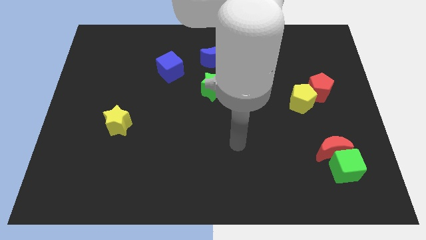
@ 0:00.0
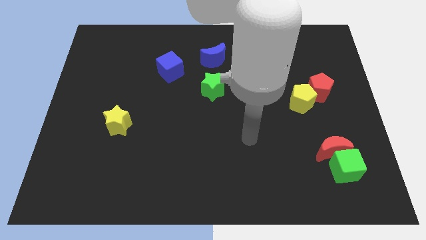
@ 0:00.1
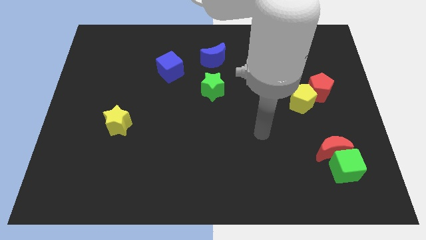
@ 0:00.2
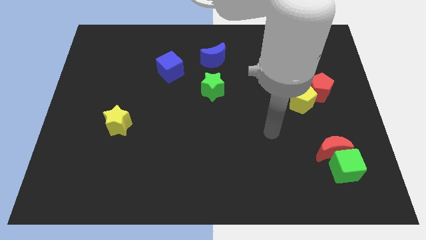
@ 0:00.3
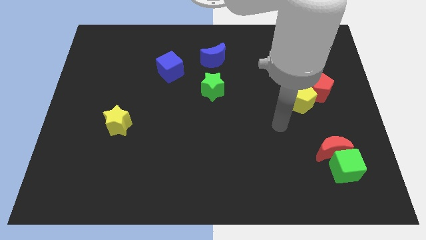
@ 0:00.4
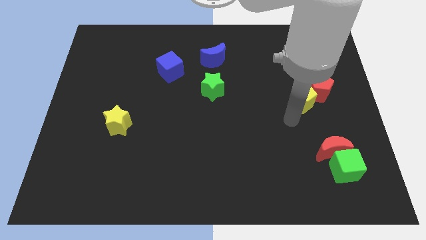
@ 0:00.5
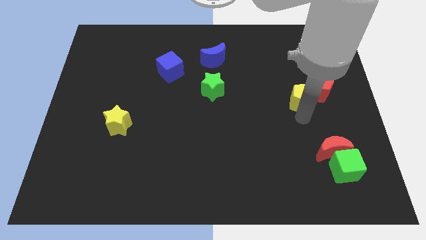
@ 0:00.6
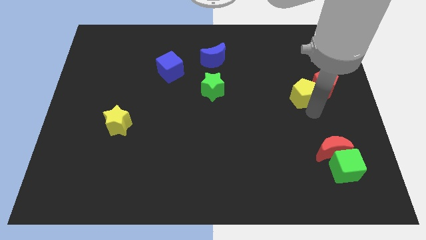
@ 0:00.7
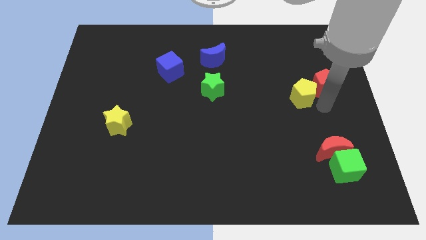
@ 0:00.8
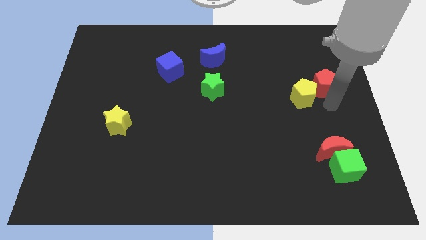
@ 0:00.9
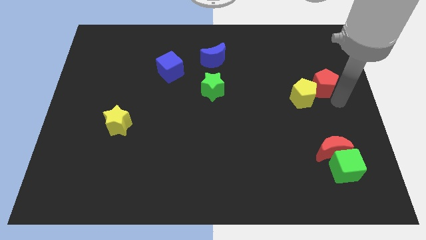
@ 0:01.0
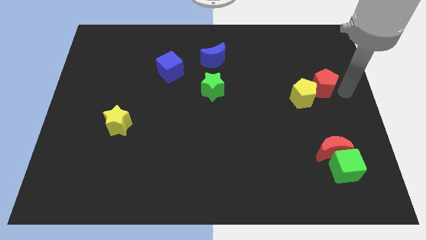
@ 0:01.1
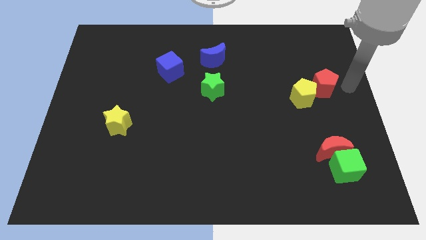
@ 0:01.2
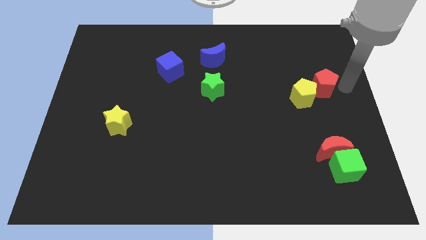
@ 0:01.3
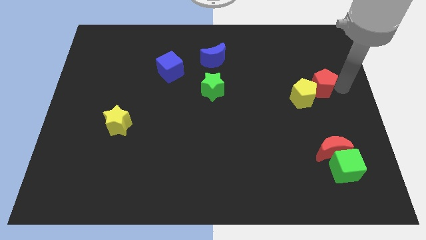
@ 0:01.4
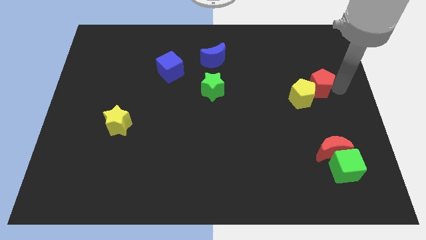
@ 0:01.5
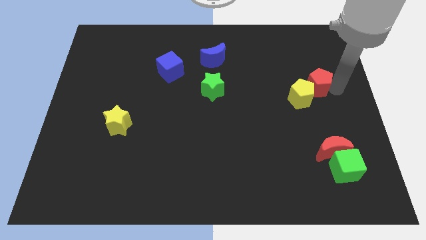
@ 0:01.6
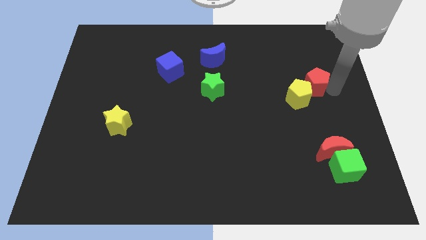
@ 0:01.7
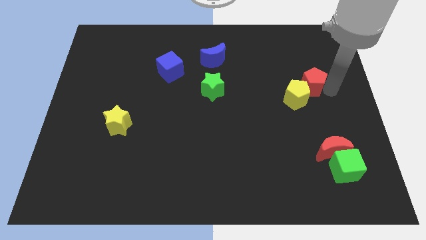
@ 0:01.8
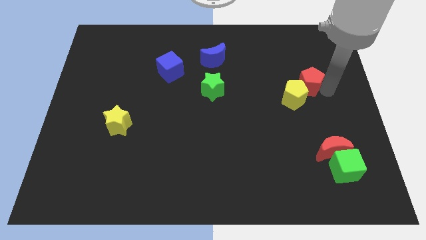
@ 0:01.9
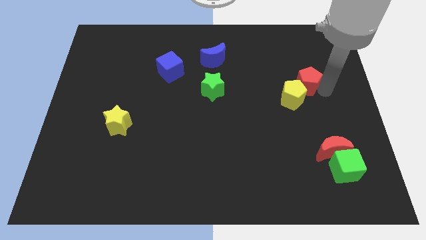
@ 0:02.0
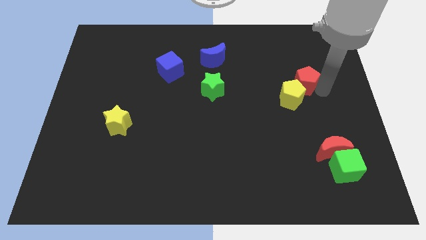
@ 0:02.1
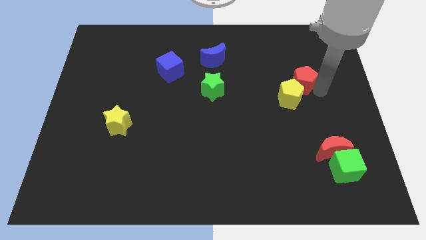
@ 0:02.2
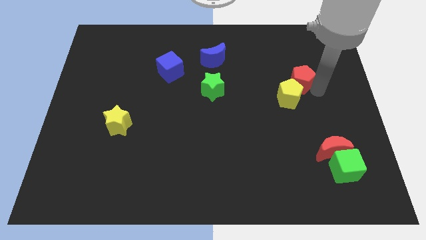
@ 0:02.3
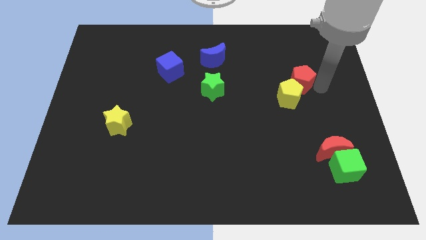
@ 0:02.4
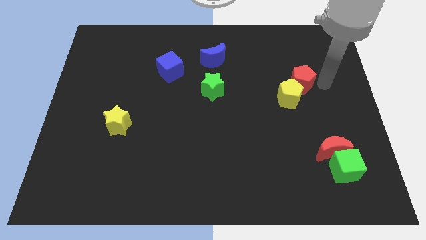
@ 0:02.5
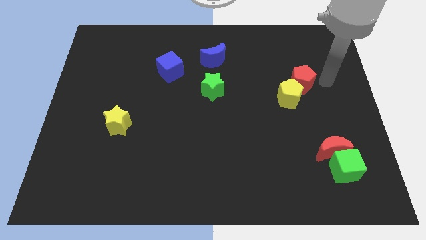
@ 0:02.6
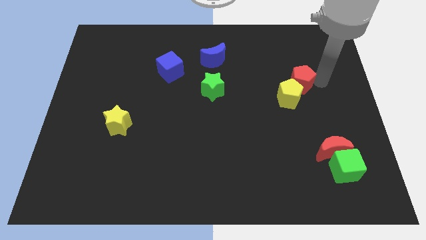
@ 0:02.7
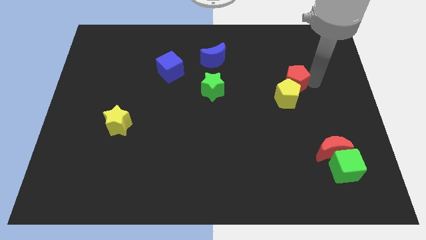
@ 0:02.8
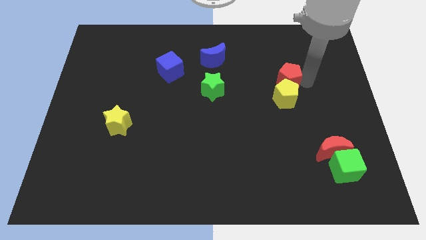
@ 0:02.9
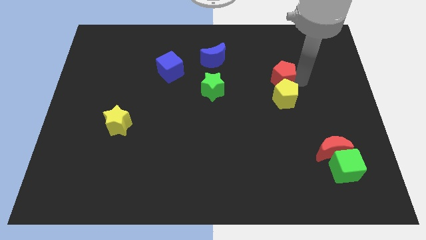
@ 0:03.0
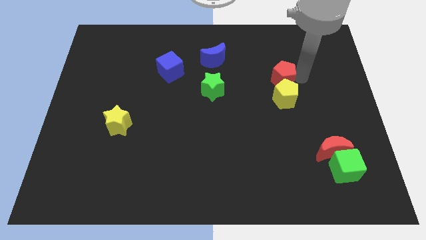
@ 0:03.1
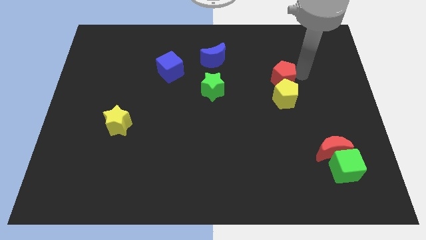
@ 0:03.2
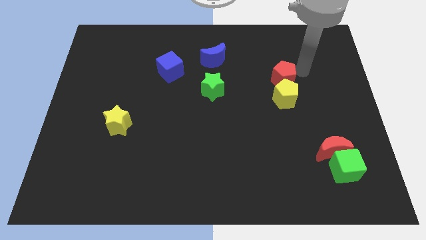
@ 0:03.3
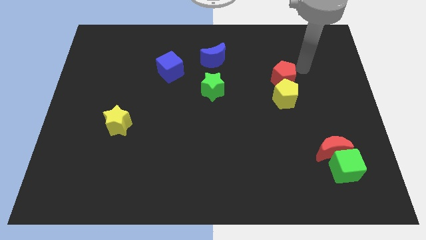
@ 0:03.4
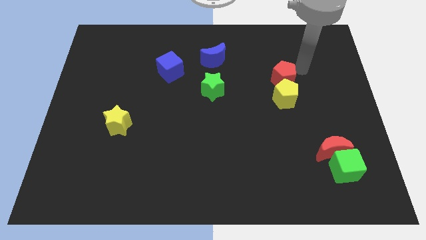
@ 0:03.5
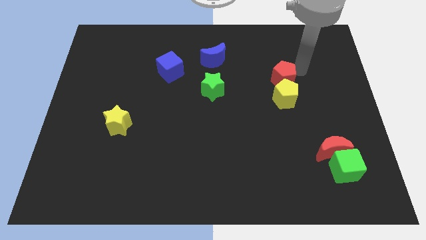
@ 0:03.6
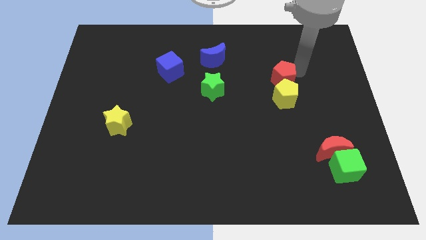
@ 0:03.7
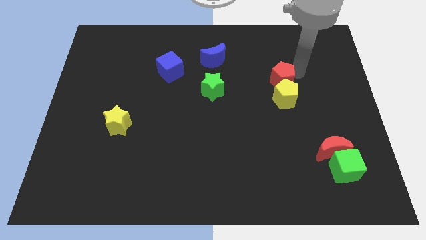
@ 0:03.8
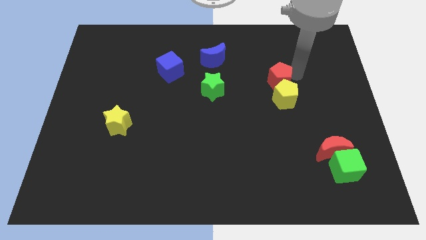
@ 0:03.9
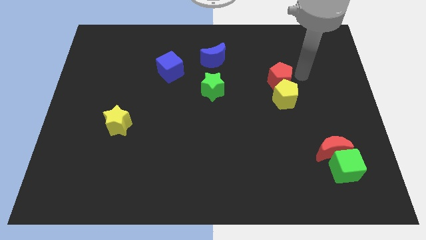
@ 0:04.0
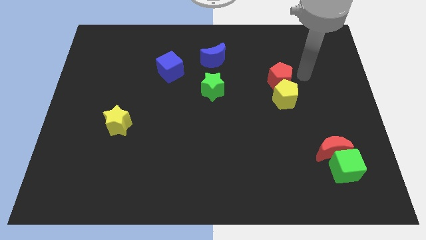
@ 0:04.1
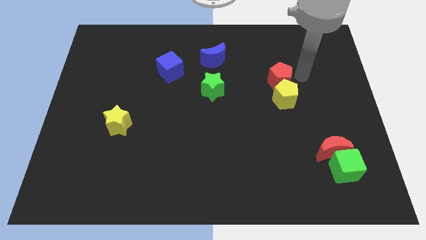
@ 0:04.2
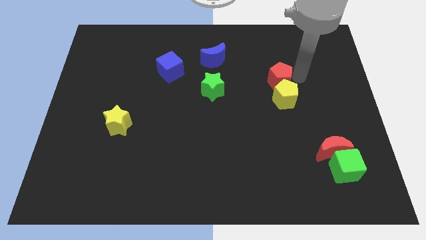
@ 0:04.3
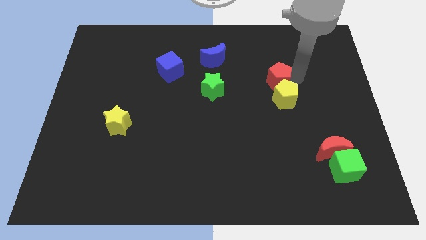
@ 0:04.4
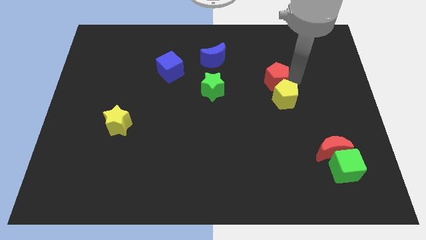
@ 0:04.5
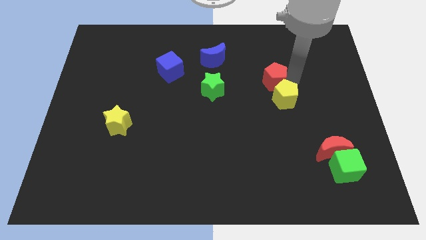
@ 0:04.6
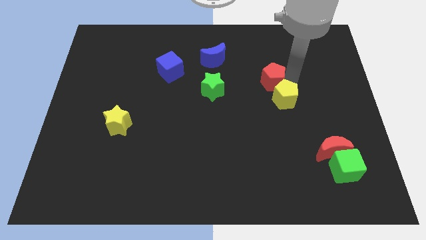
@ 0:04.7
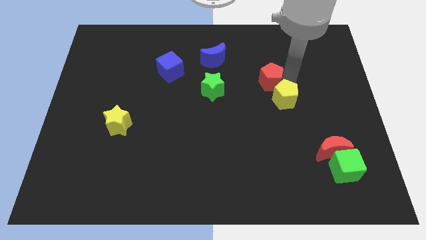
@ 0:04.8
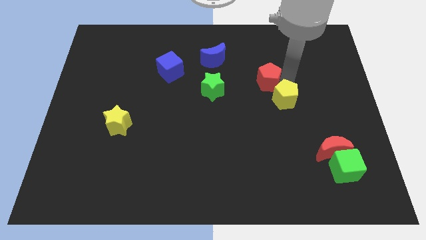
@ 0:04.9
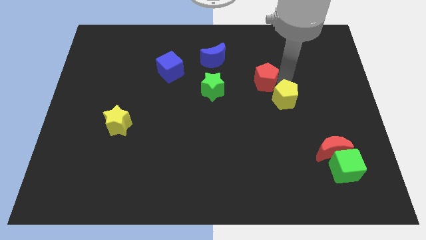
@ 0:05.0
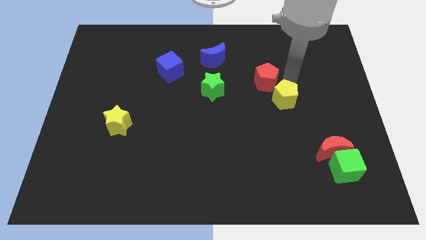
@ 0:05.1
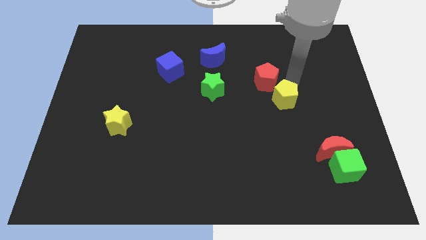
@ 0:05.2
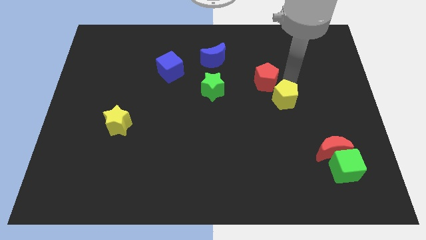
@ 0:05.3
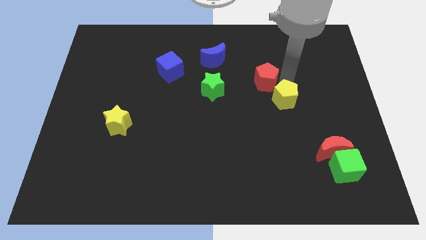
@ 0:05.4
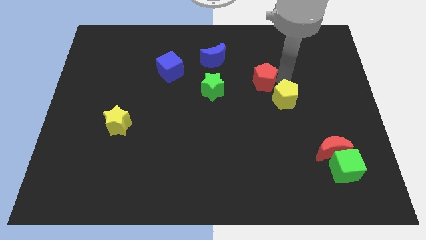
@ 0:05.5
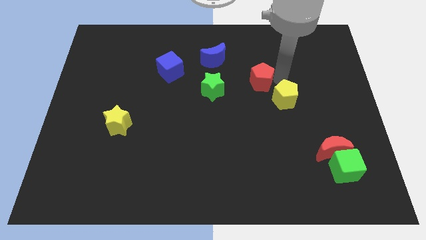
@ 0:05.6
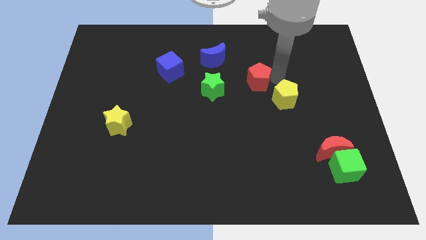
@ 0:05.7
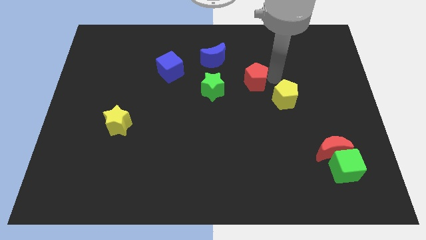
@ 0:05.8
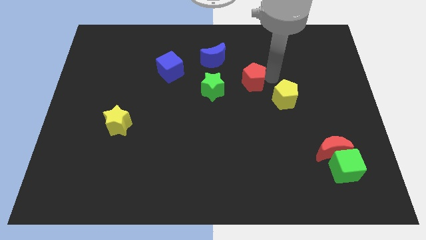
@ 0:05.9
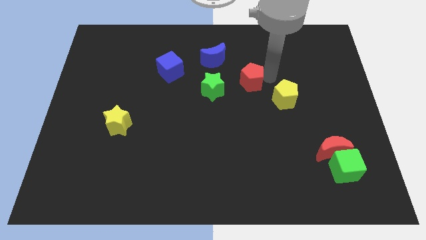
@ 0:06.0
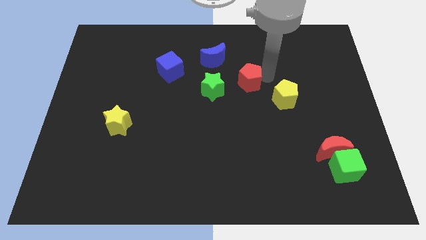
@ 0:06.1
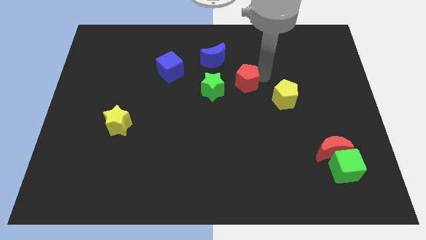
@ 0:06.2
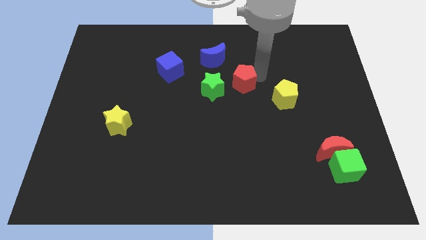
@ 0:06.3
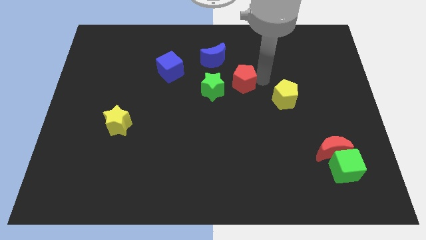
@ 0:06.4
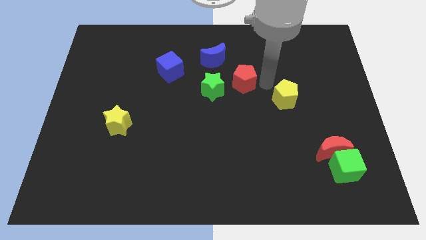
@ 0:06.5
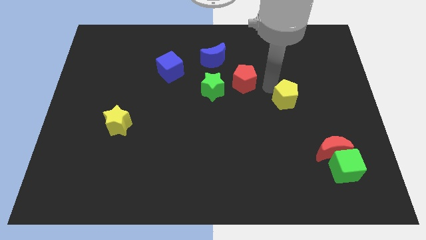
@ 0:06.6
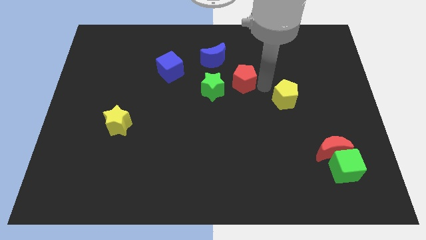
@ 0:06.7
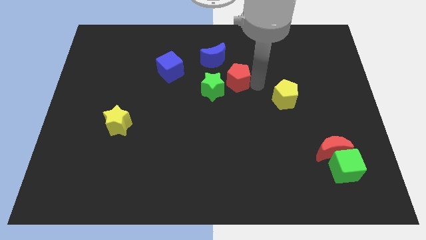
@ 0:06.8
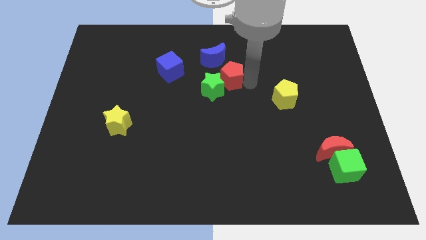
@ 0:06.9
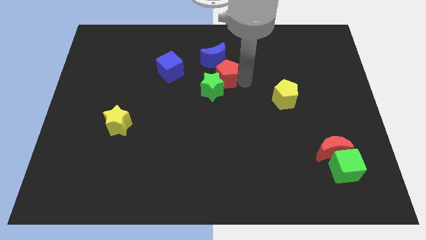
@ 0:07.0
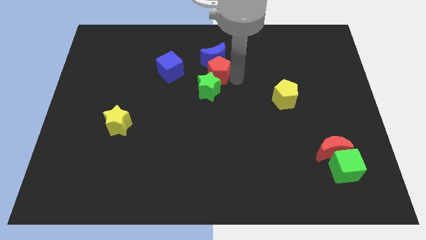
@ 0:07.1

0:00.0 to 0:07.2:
move the red pentagon diagonally down and to the left of the blue moon
